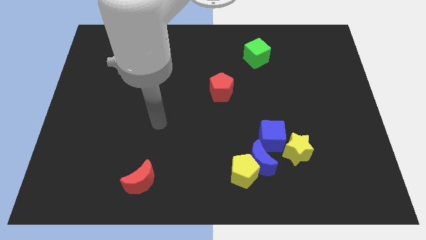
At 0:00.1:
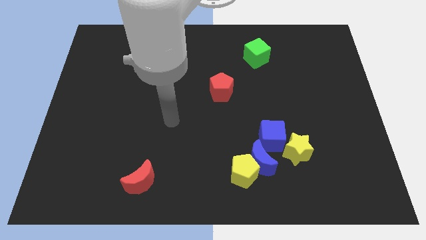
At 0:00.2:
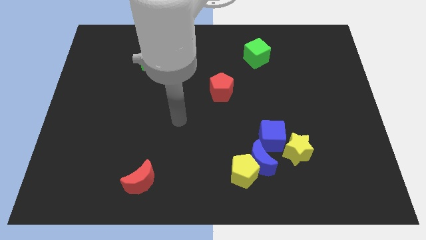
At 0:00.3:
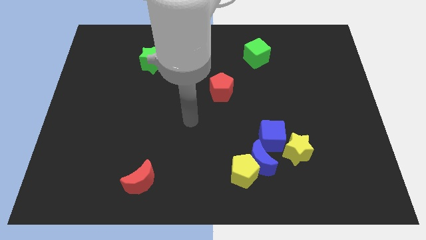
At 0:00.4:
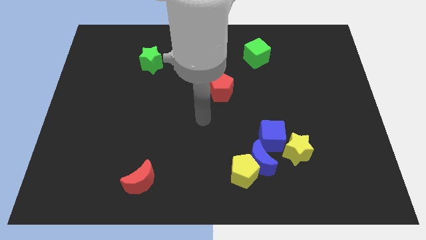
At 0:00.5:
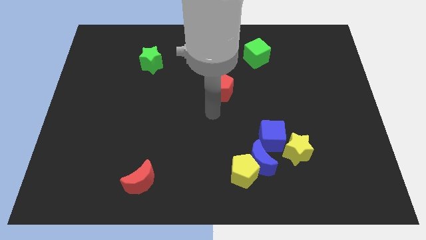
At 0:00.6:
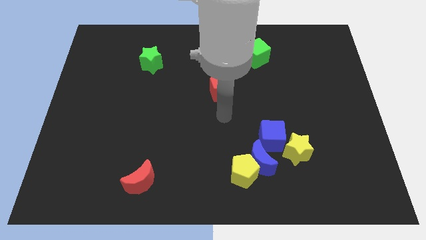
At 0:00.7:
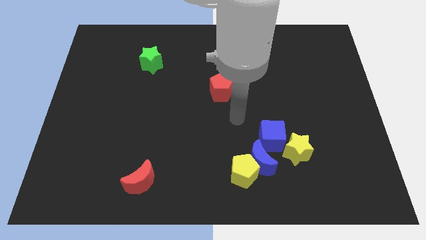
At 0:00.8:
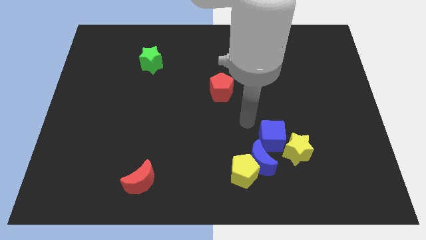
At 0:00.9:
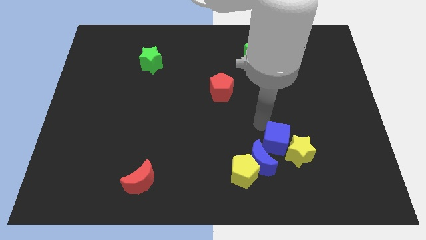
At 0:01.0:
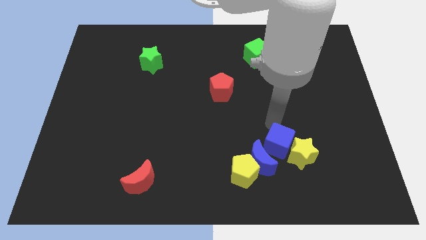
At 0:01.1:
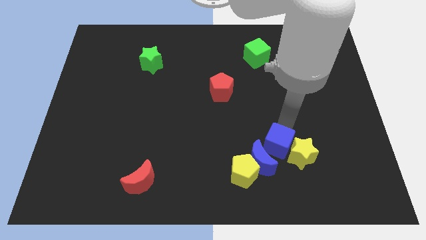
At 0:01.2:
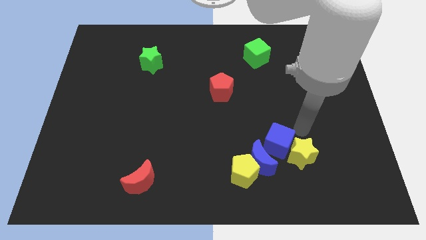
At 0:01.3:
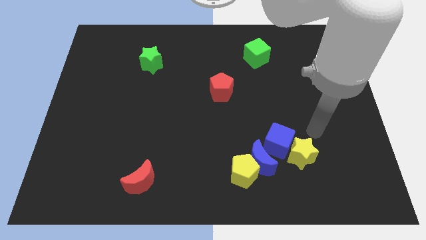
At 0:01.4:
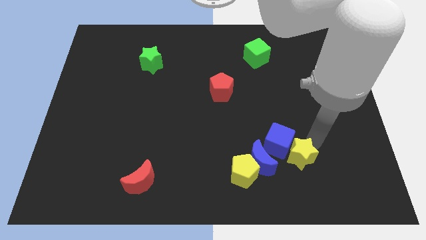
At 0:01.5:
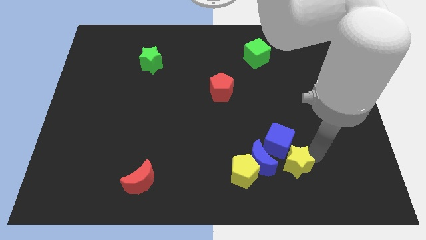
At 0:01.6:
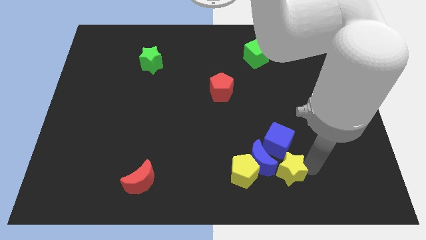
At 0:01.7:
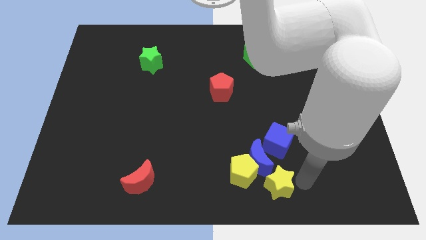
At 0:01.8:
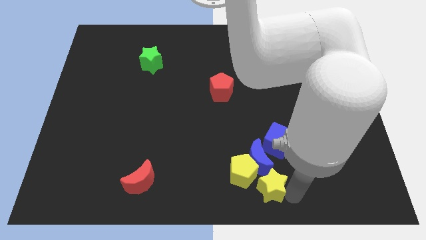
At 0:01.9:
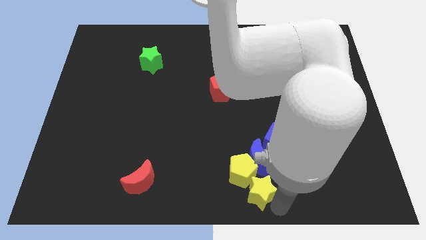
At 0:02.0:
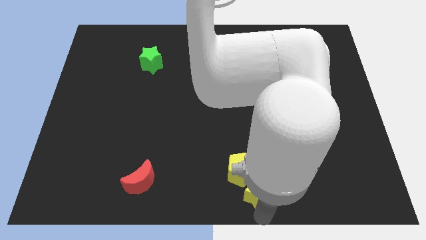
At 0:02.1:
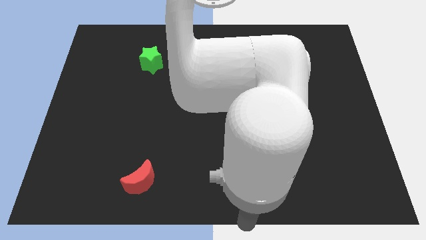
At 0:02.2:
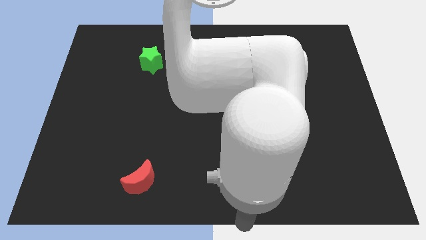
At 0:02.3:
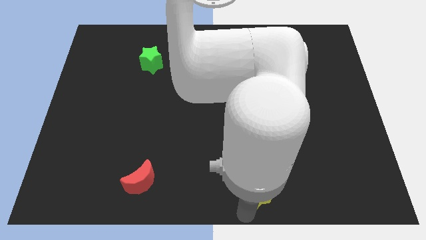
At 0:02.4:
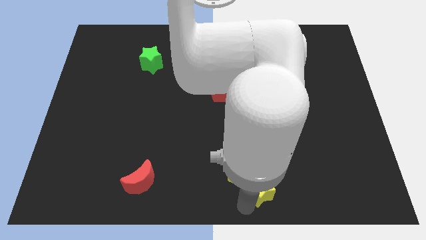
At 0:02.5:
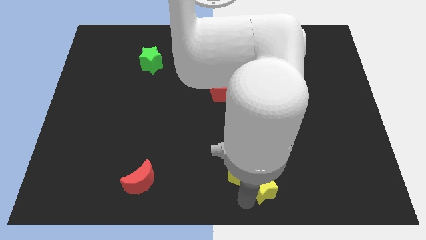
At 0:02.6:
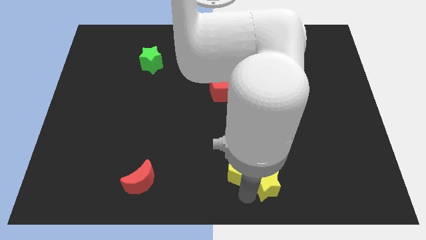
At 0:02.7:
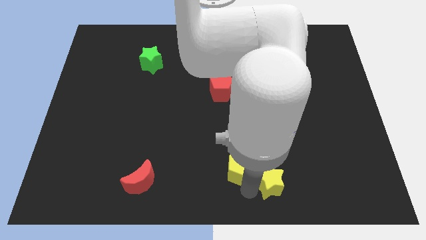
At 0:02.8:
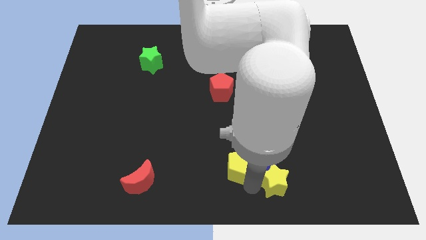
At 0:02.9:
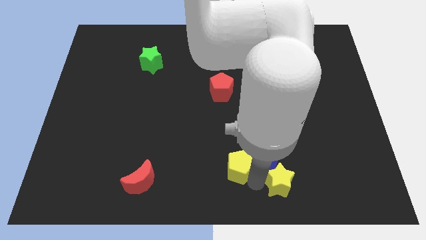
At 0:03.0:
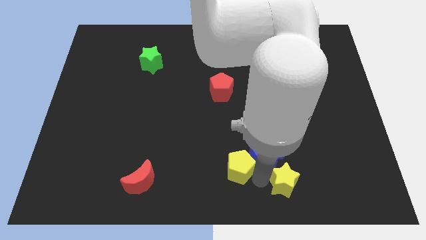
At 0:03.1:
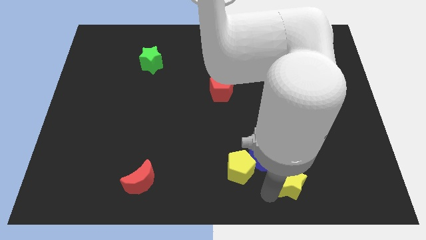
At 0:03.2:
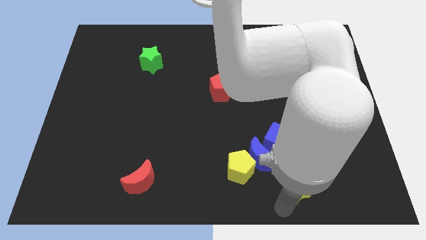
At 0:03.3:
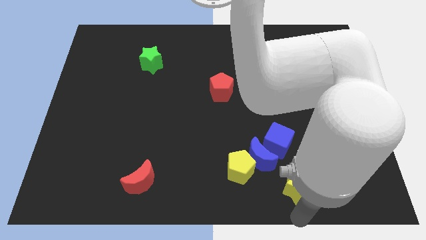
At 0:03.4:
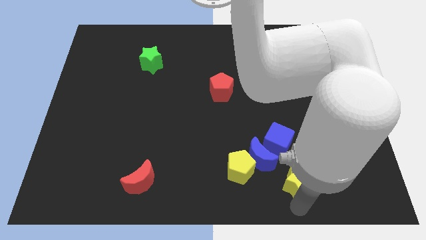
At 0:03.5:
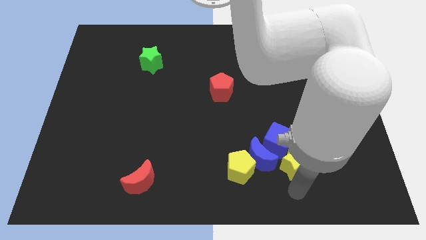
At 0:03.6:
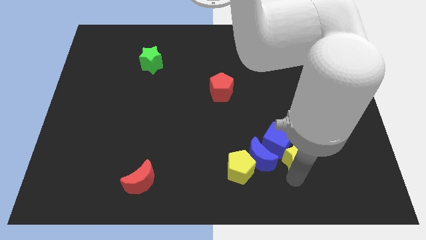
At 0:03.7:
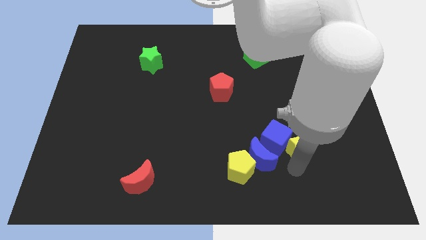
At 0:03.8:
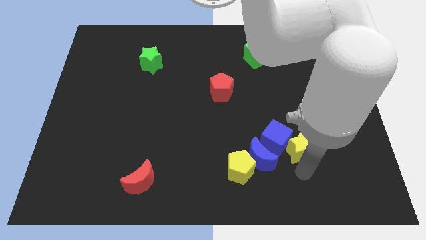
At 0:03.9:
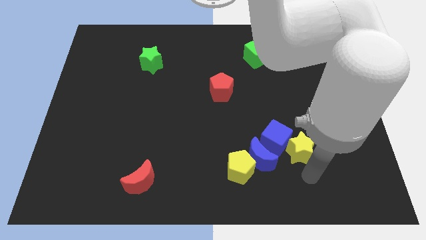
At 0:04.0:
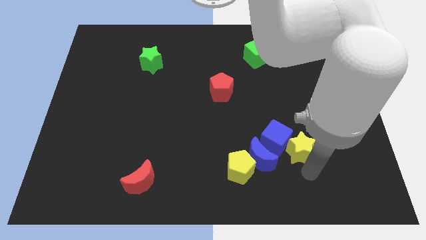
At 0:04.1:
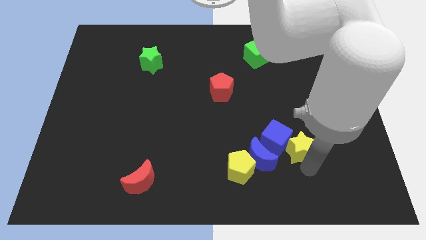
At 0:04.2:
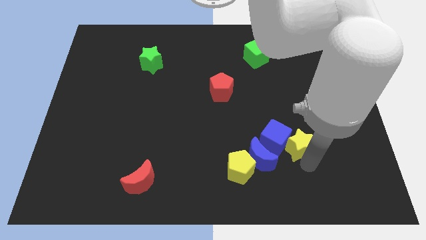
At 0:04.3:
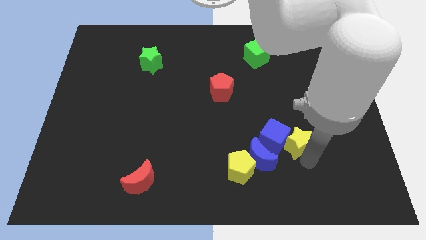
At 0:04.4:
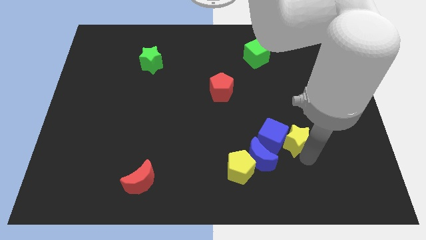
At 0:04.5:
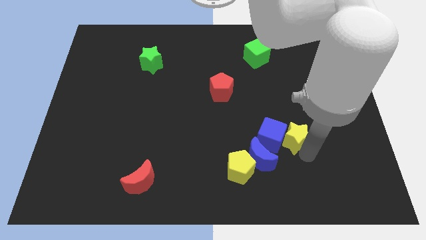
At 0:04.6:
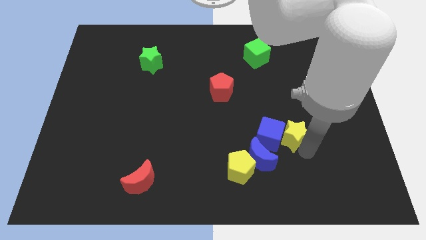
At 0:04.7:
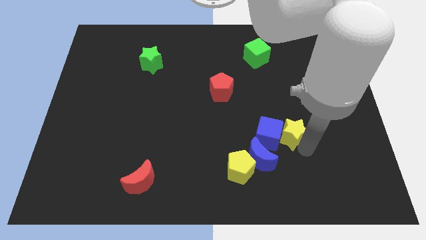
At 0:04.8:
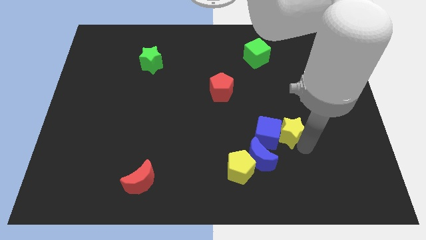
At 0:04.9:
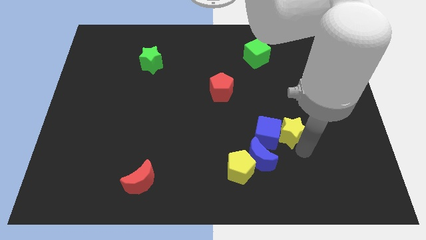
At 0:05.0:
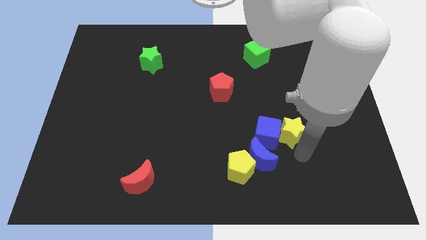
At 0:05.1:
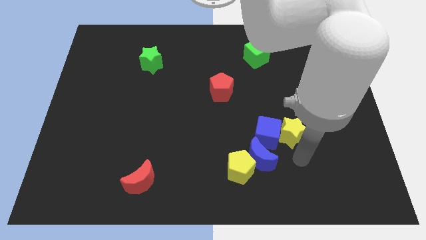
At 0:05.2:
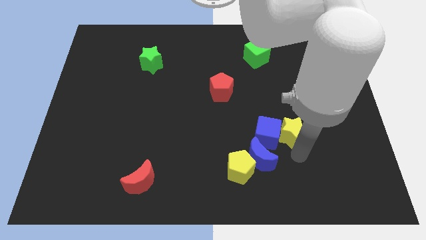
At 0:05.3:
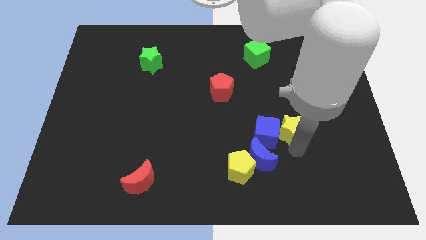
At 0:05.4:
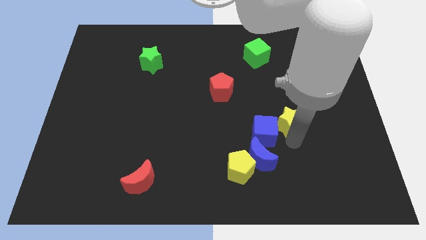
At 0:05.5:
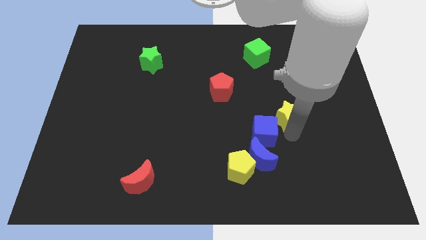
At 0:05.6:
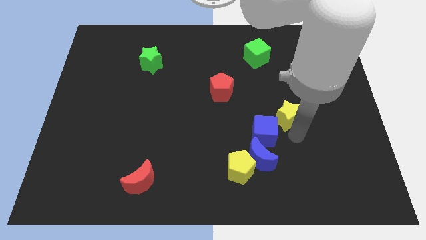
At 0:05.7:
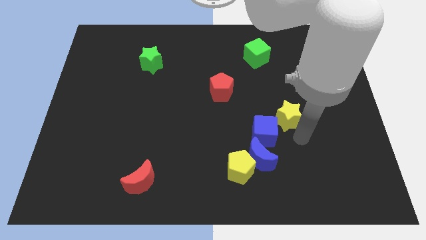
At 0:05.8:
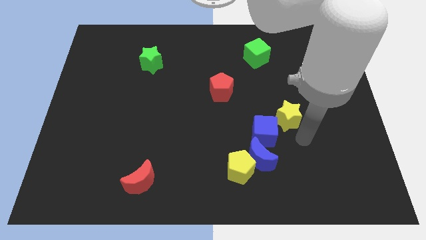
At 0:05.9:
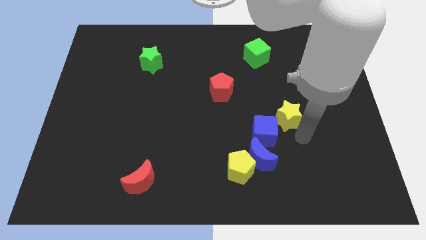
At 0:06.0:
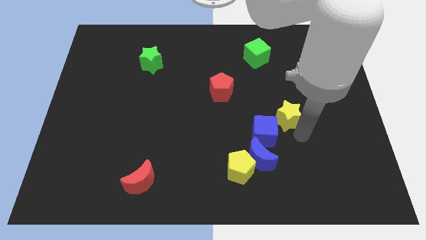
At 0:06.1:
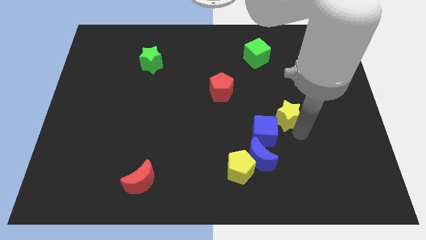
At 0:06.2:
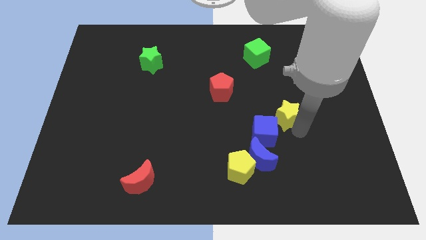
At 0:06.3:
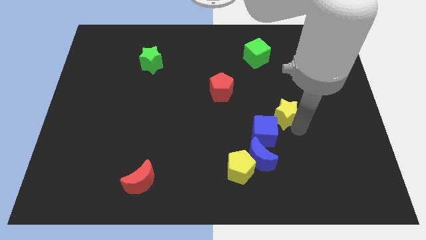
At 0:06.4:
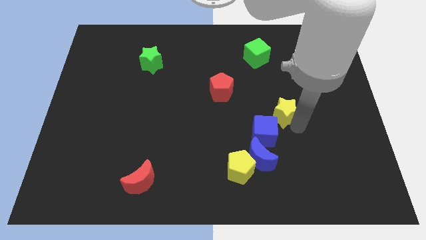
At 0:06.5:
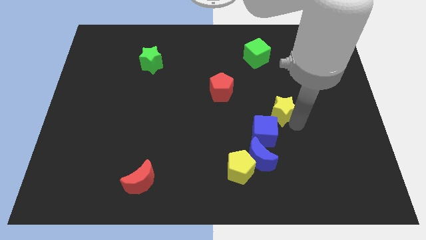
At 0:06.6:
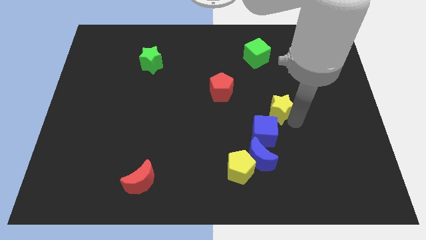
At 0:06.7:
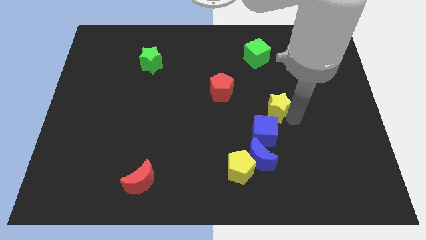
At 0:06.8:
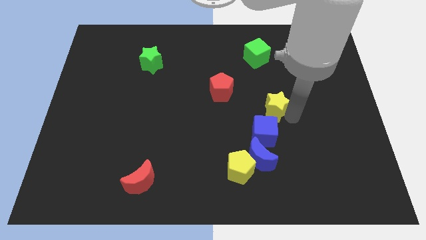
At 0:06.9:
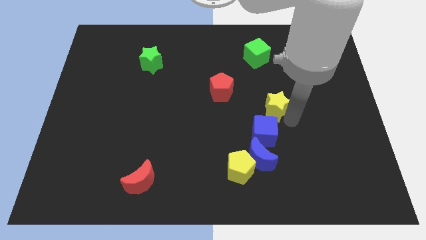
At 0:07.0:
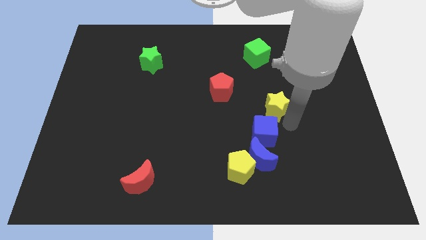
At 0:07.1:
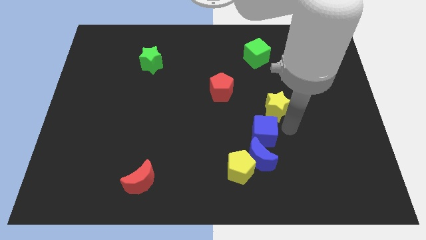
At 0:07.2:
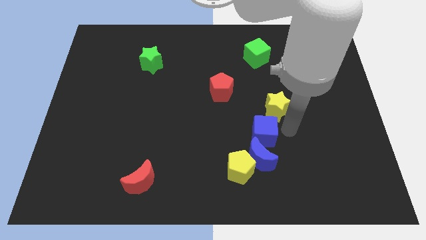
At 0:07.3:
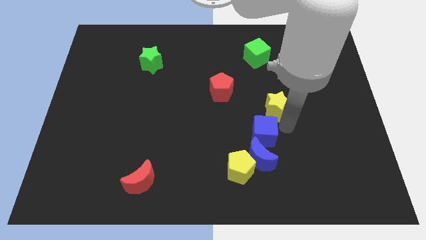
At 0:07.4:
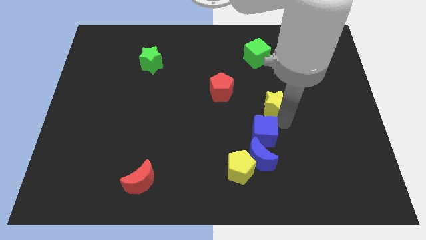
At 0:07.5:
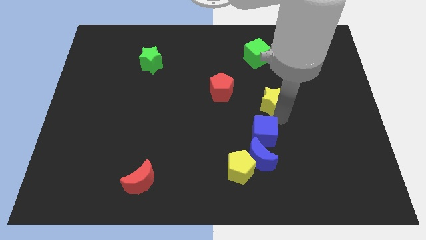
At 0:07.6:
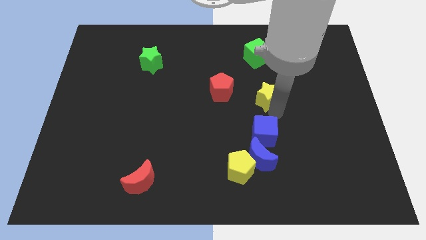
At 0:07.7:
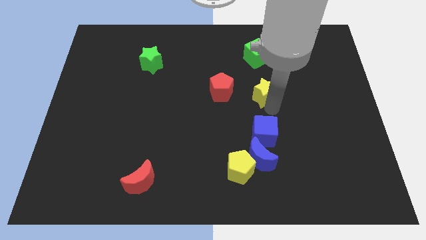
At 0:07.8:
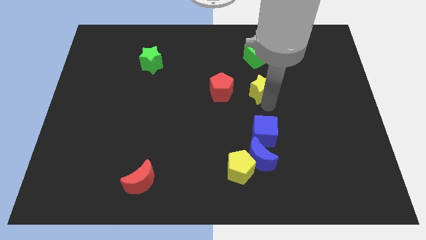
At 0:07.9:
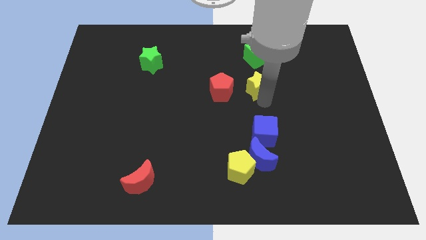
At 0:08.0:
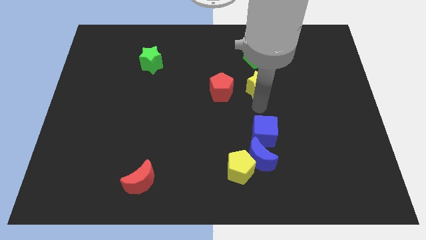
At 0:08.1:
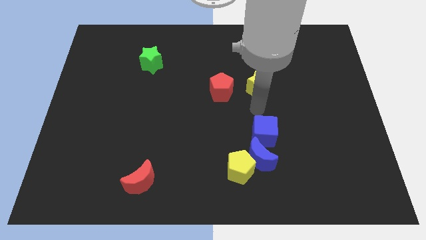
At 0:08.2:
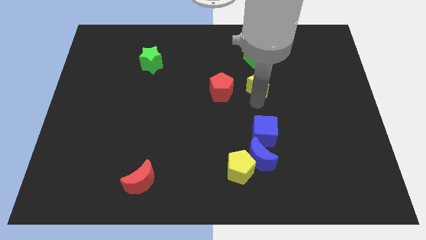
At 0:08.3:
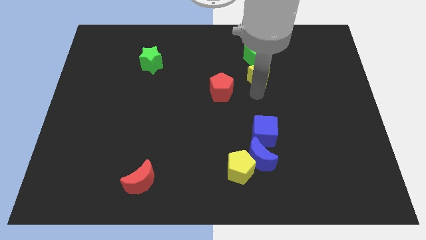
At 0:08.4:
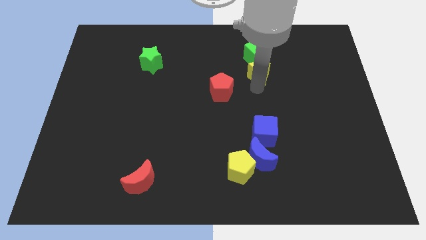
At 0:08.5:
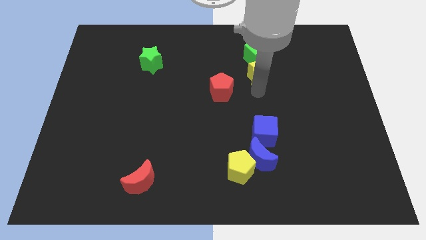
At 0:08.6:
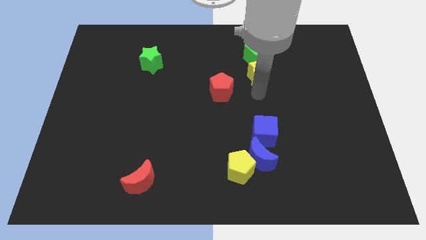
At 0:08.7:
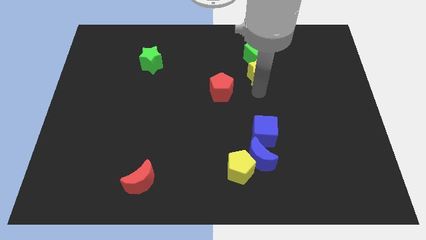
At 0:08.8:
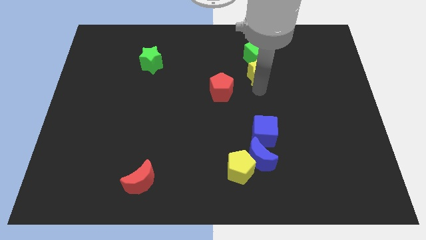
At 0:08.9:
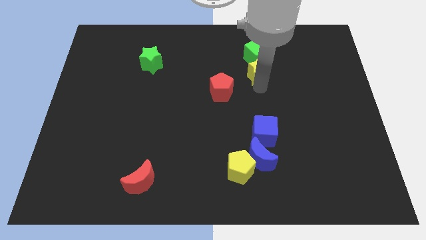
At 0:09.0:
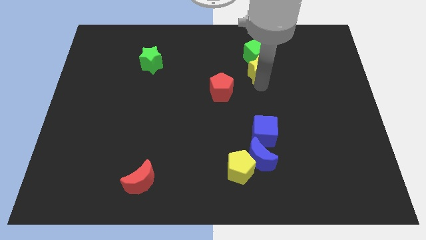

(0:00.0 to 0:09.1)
slide the yellow star close to the green cube
